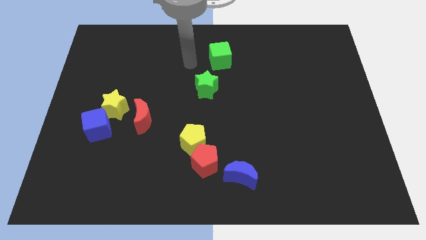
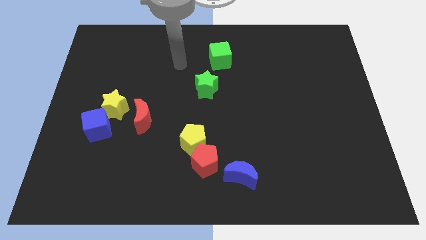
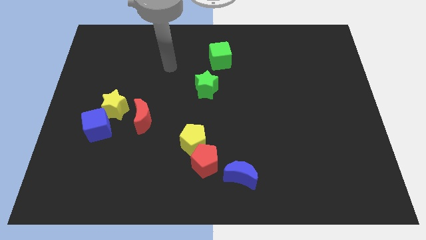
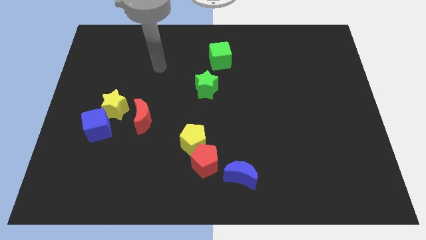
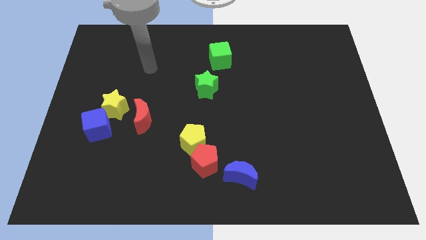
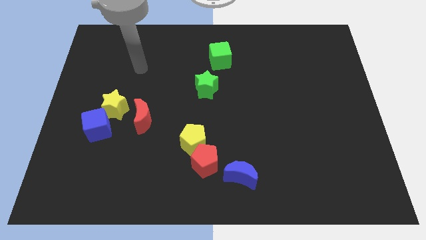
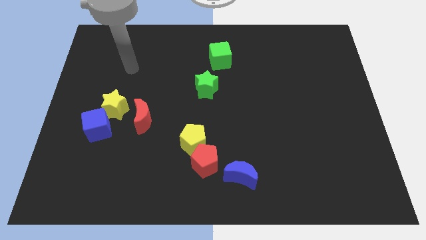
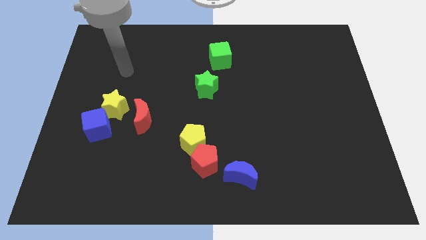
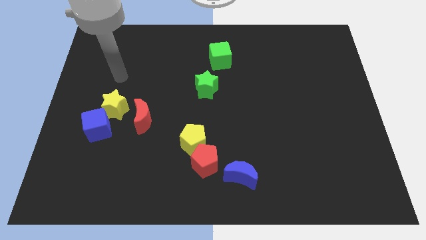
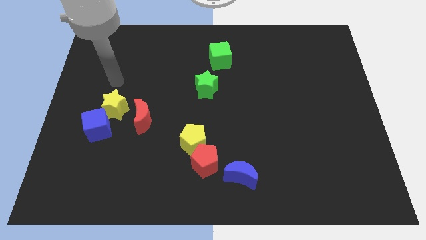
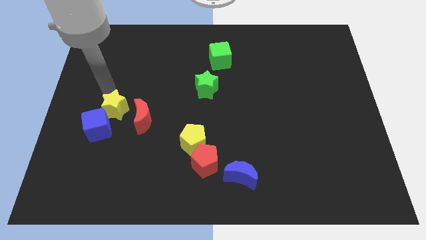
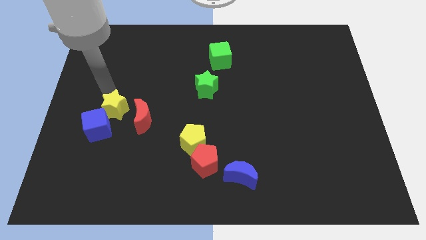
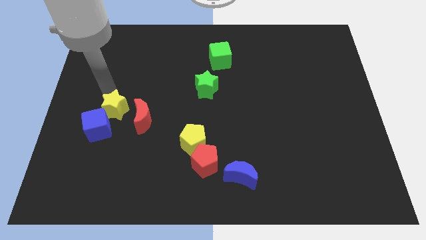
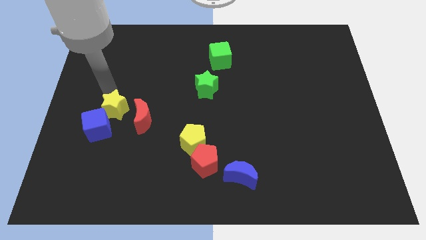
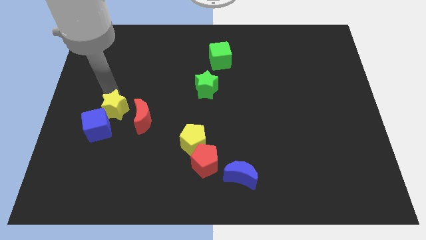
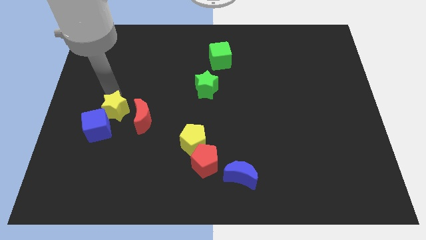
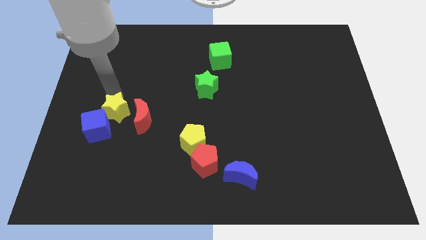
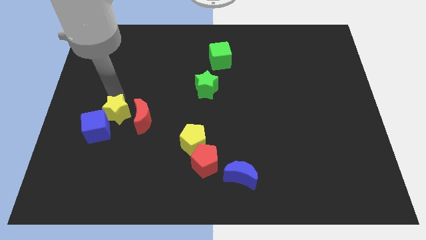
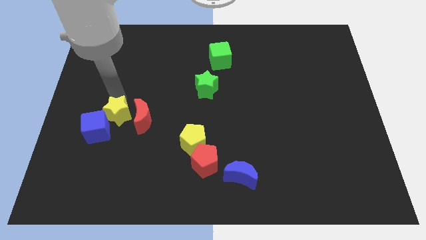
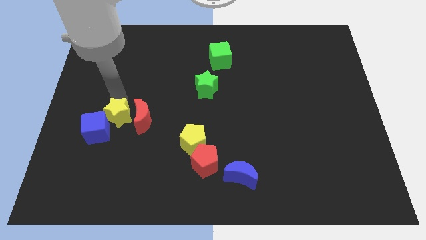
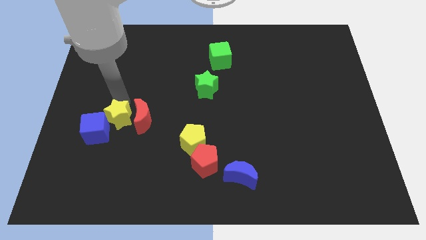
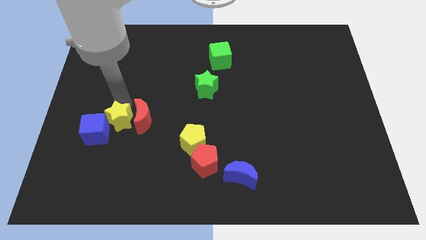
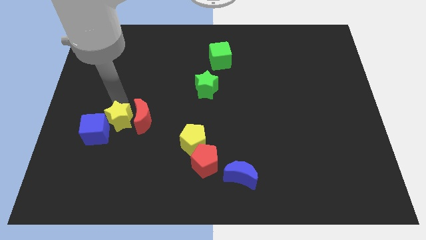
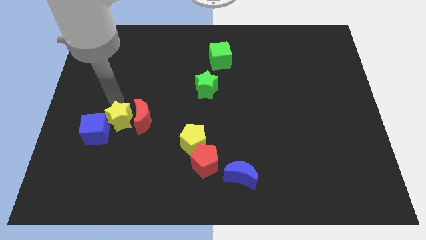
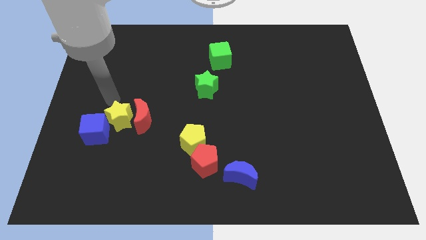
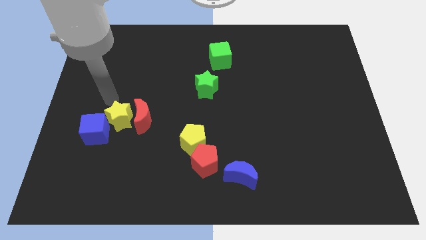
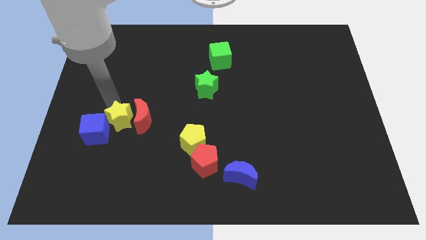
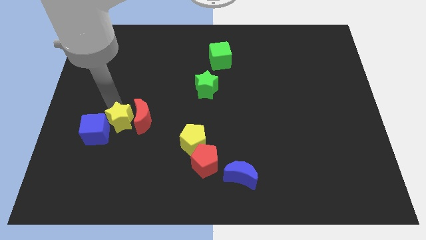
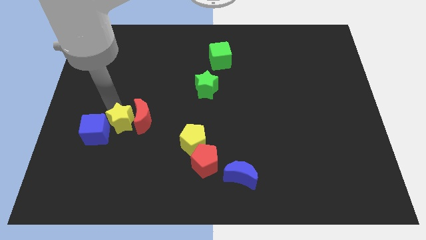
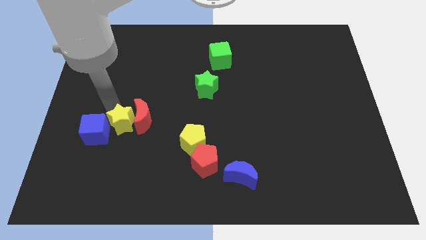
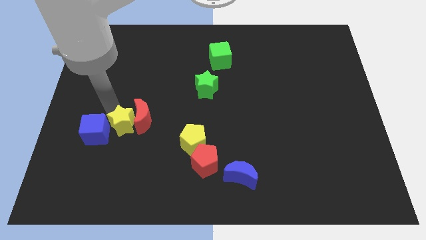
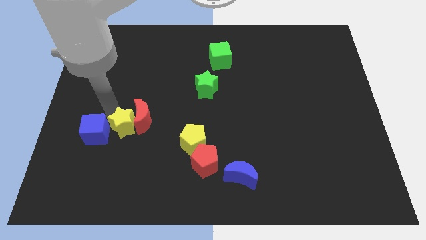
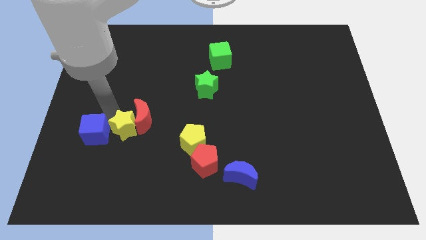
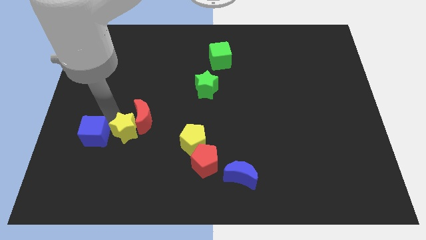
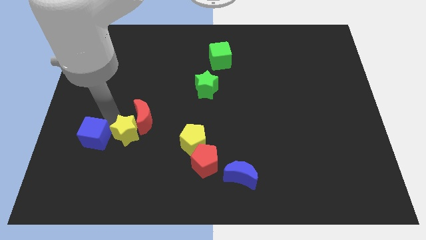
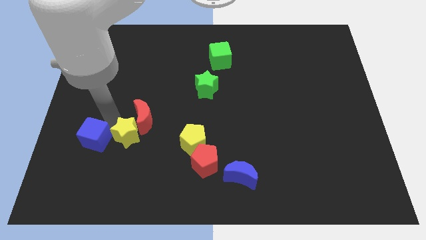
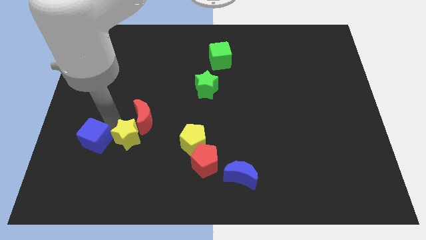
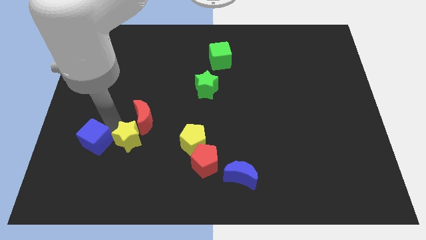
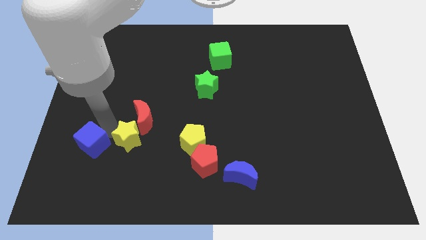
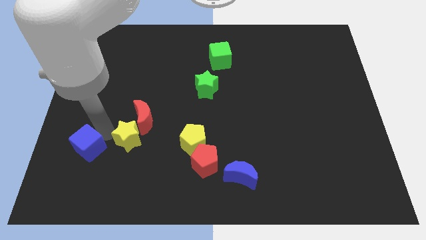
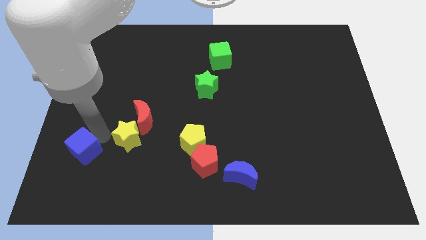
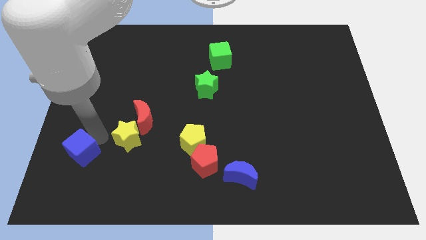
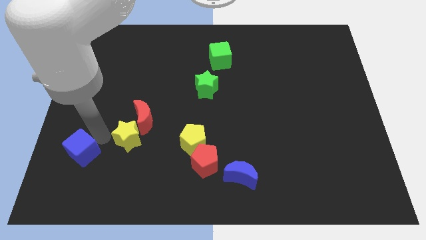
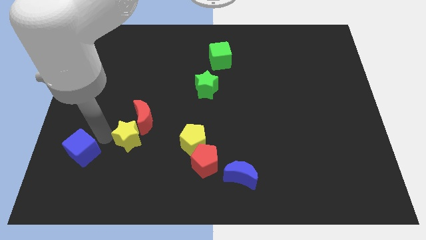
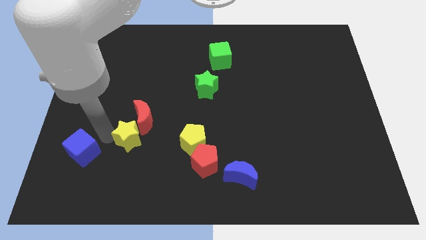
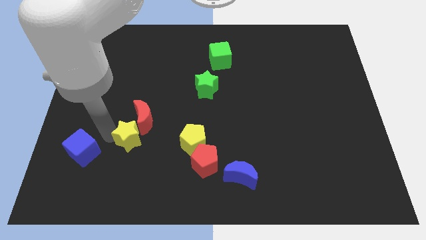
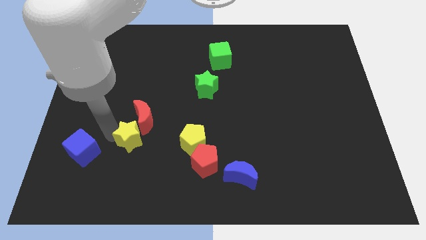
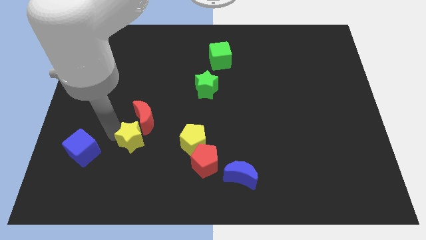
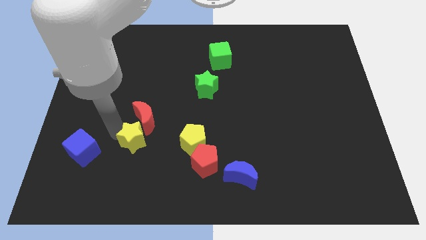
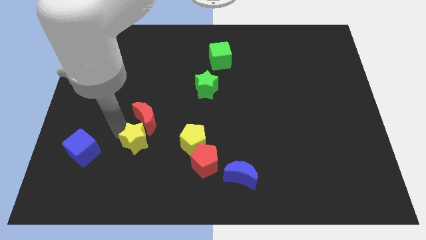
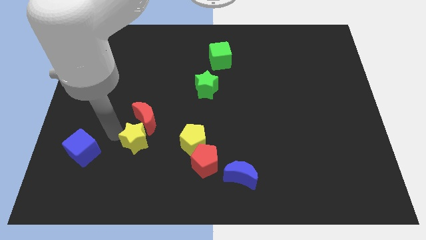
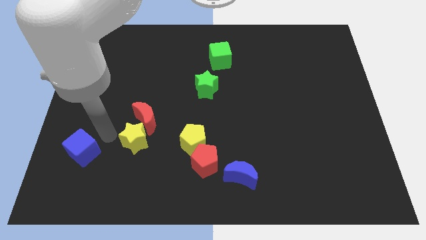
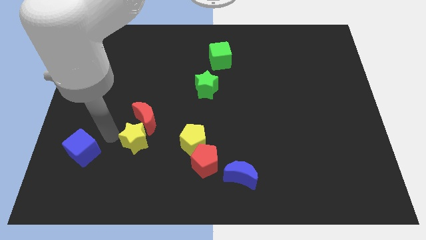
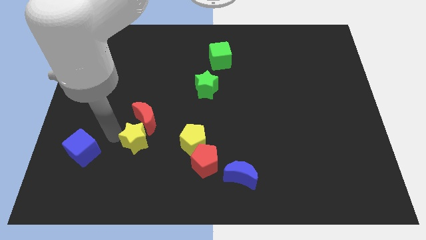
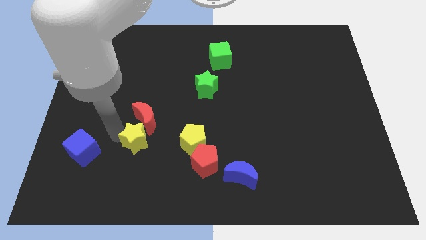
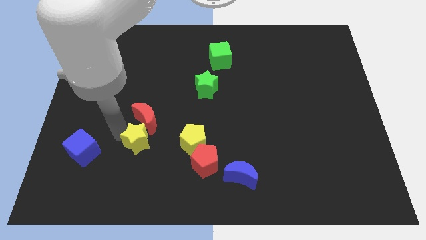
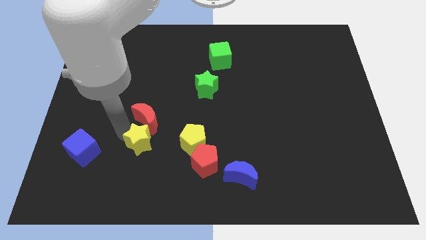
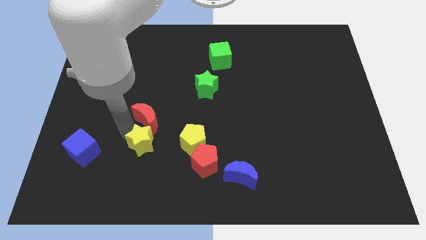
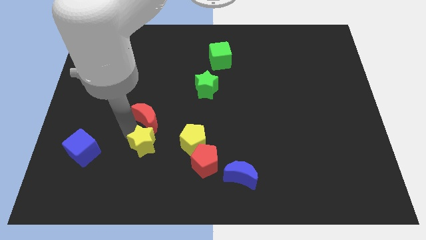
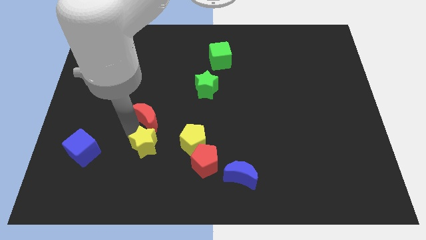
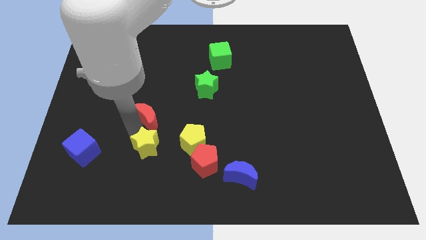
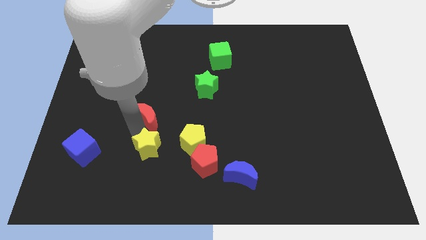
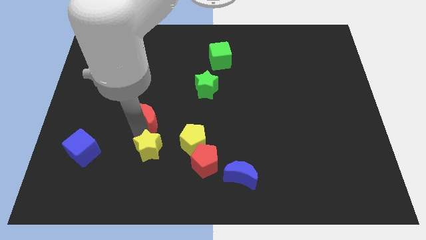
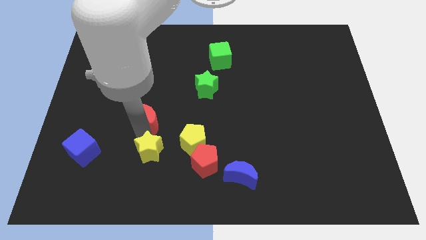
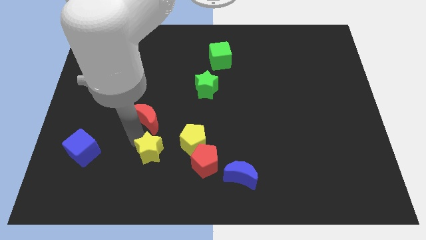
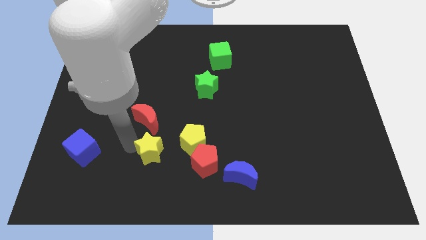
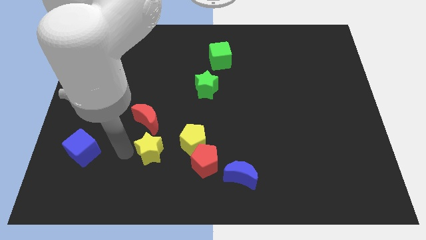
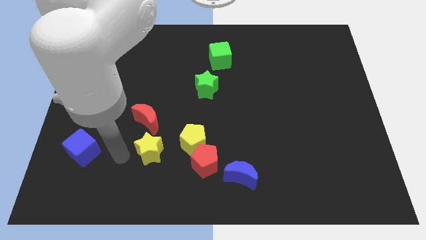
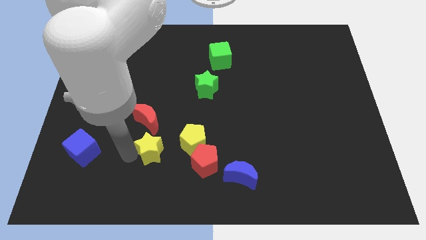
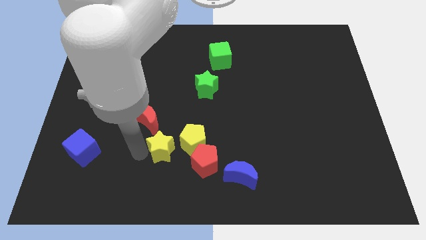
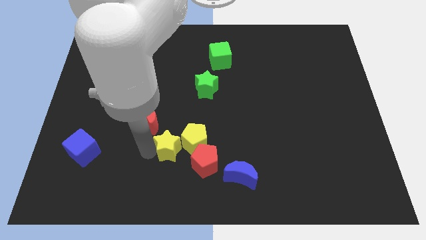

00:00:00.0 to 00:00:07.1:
slide the yellow star close to the yellow pentagon

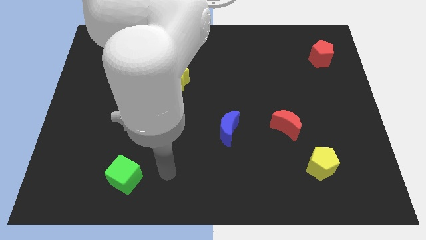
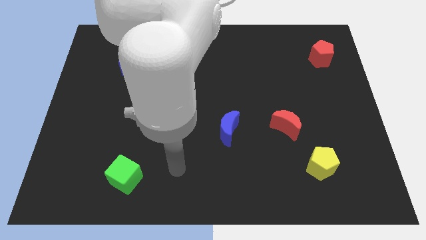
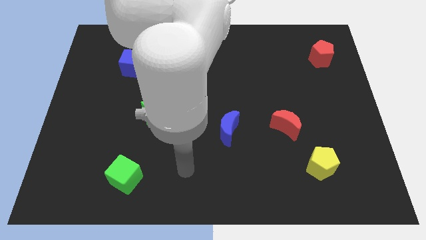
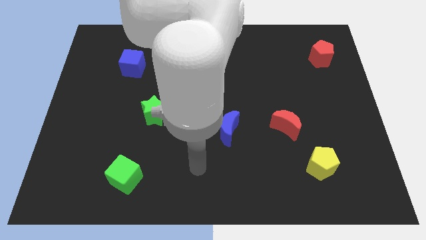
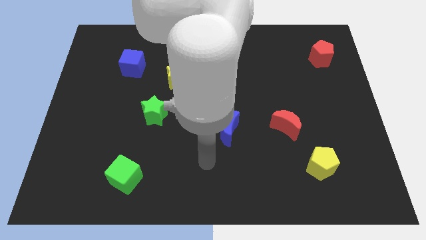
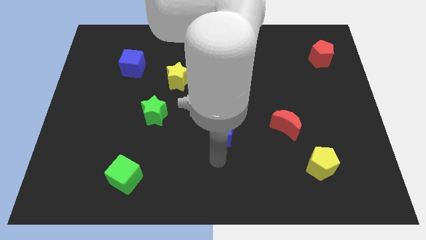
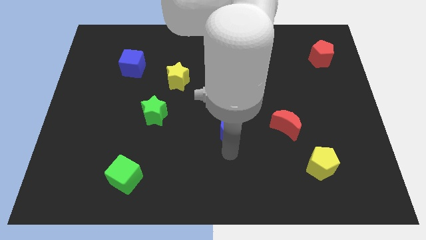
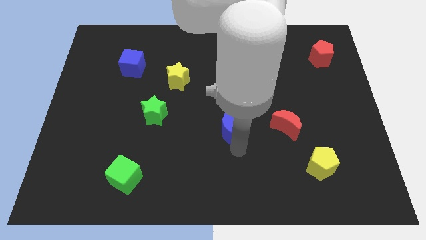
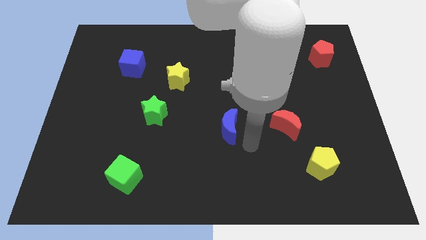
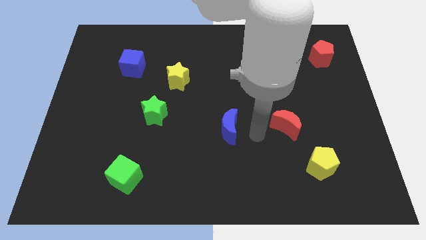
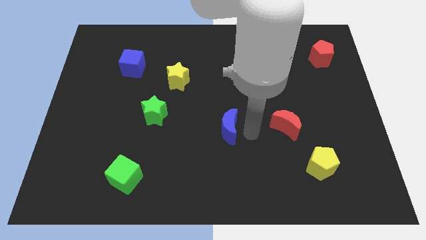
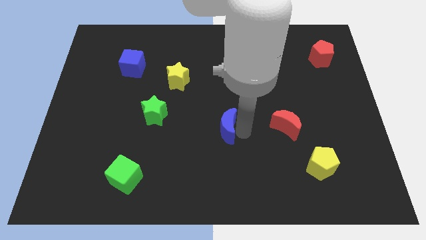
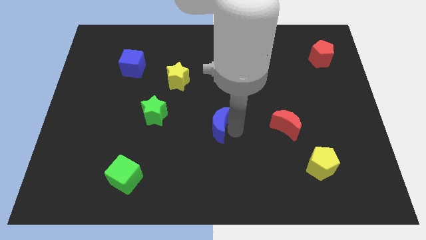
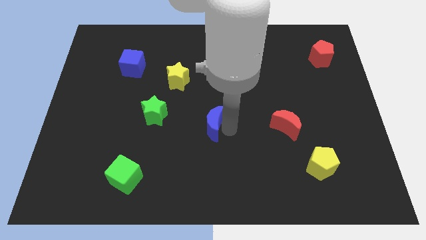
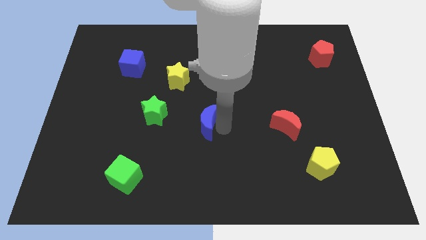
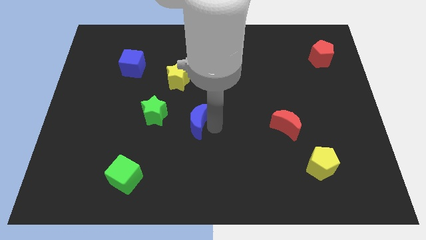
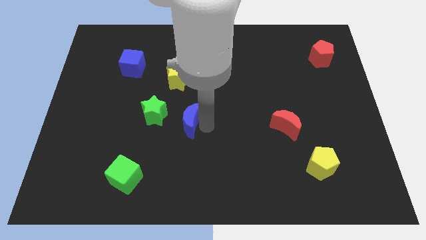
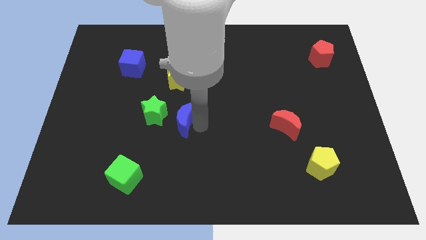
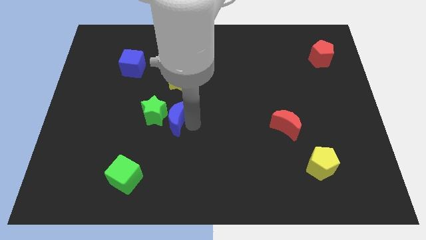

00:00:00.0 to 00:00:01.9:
put the blue moon to the green star
